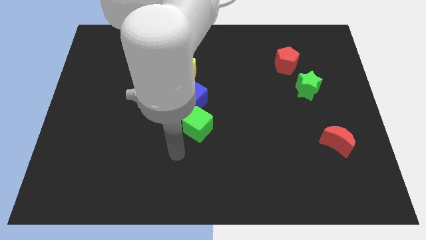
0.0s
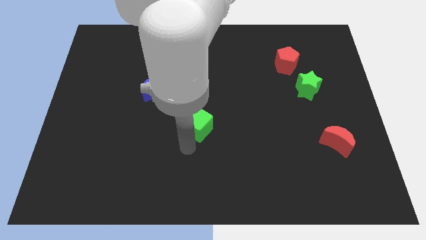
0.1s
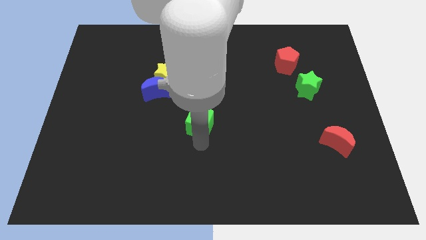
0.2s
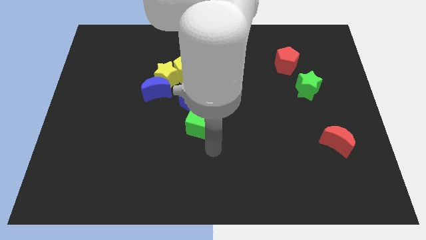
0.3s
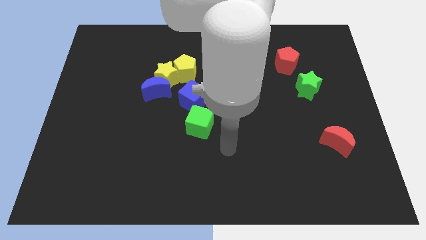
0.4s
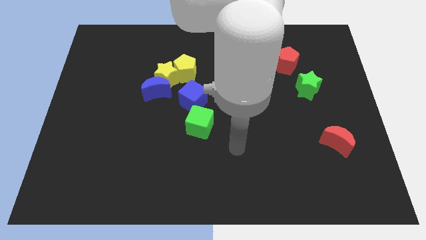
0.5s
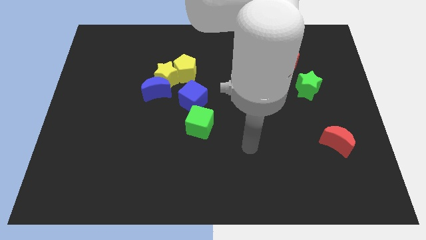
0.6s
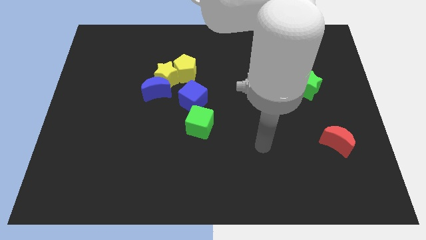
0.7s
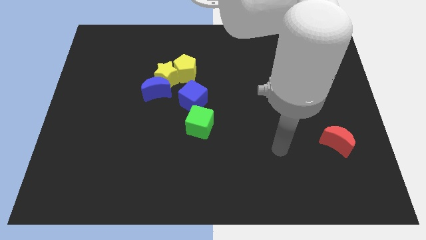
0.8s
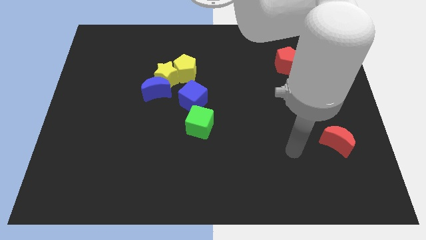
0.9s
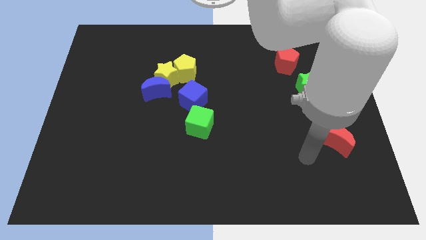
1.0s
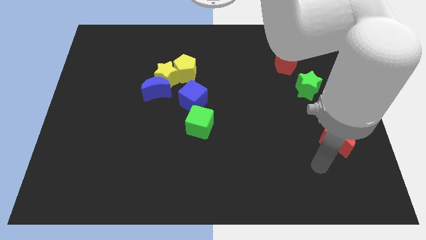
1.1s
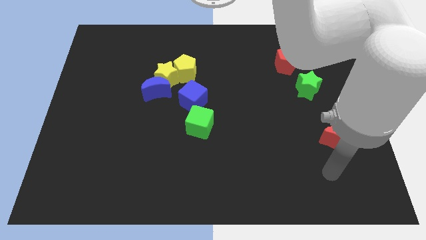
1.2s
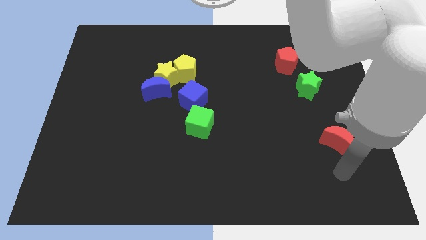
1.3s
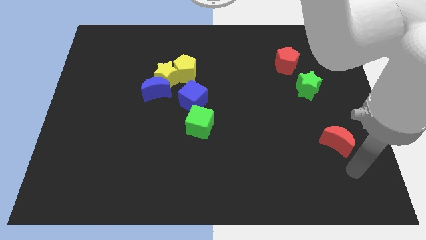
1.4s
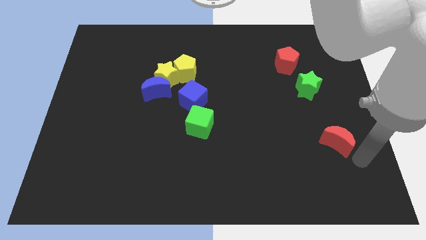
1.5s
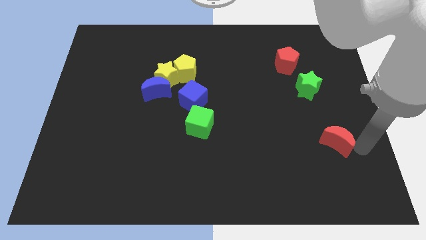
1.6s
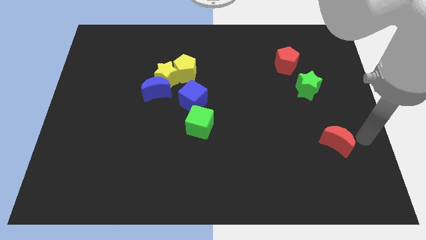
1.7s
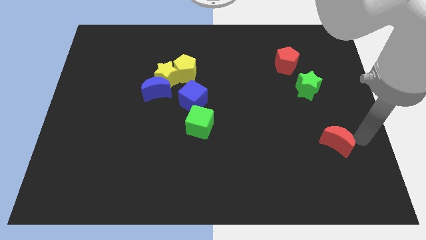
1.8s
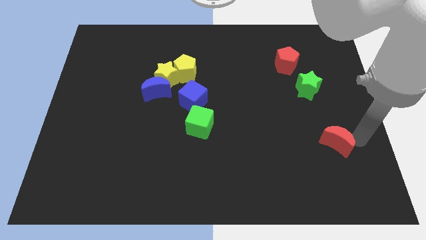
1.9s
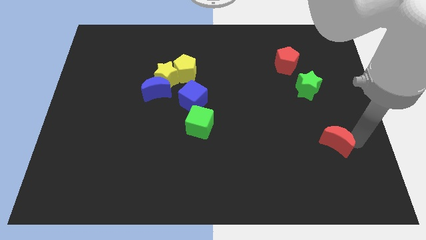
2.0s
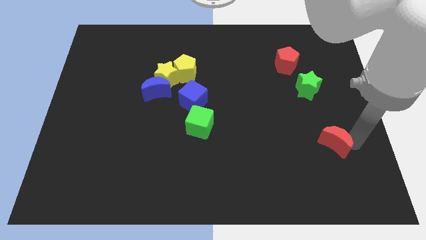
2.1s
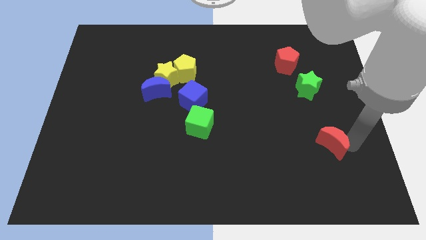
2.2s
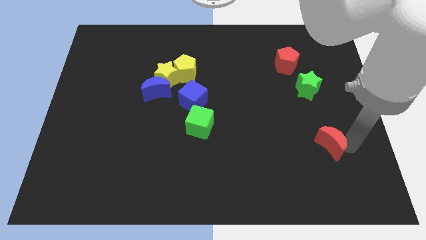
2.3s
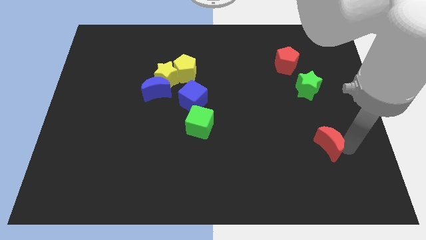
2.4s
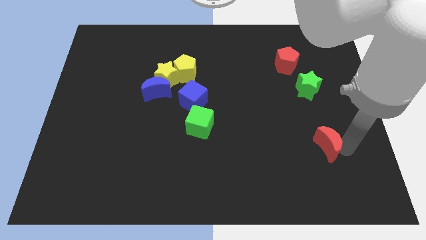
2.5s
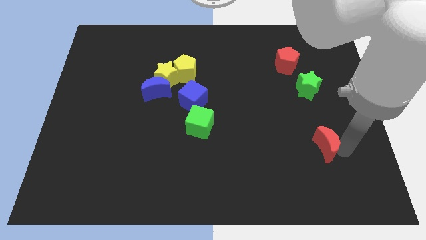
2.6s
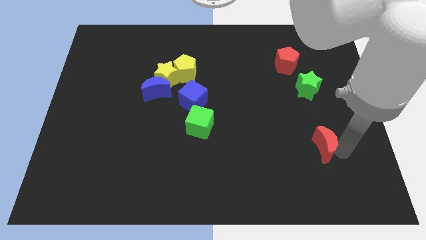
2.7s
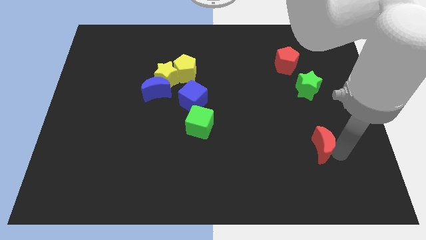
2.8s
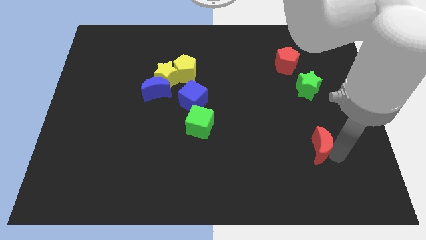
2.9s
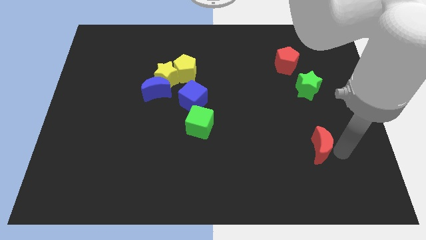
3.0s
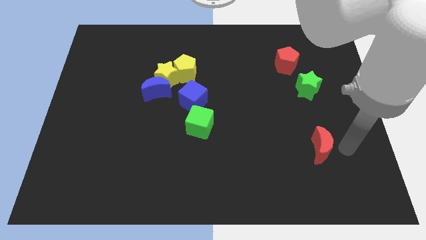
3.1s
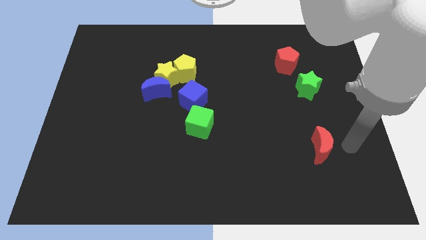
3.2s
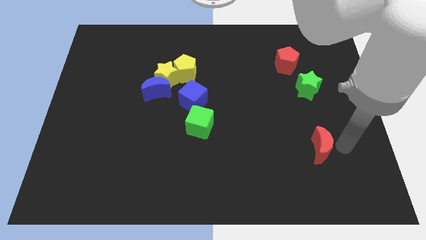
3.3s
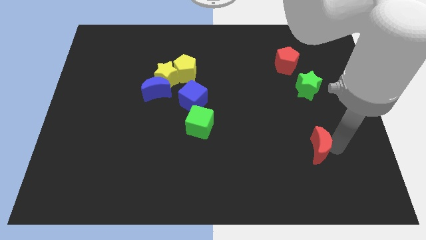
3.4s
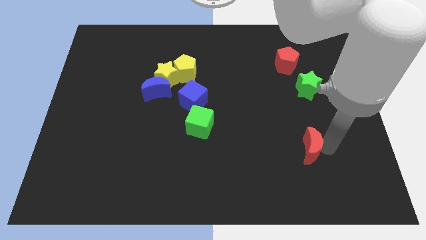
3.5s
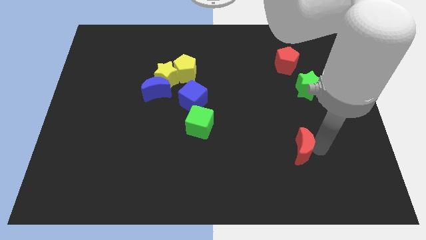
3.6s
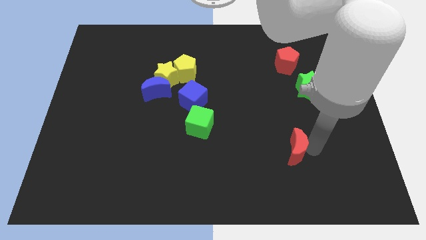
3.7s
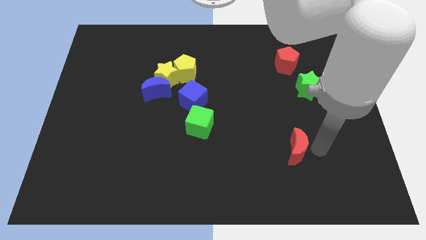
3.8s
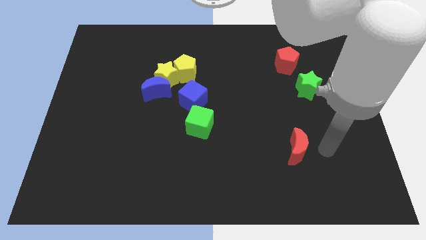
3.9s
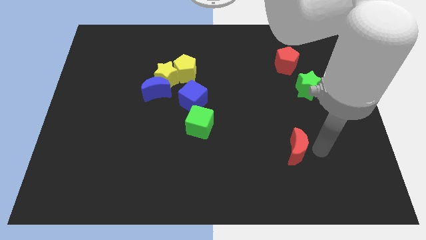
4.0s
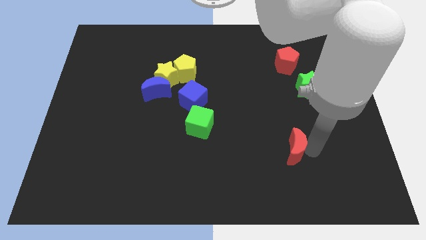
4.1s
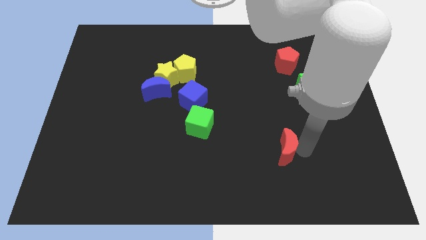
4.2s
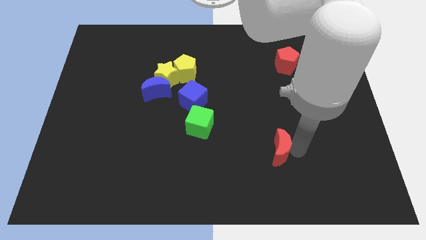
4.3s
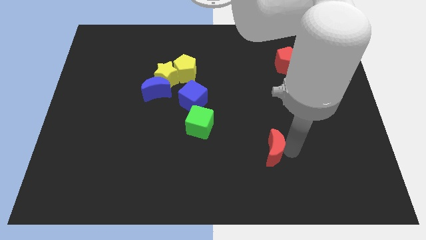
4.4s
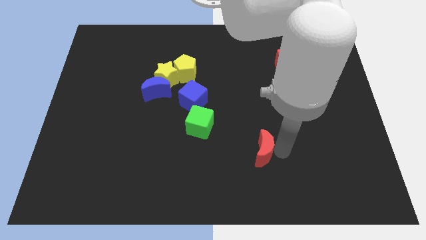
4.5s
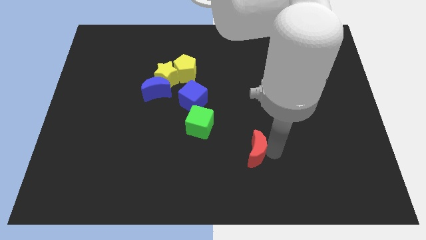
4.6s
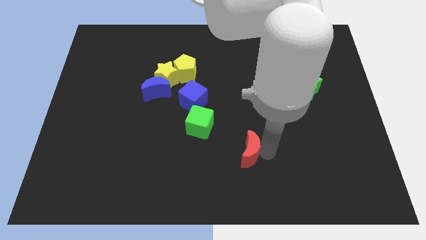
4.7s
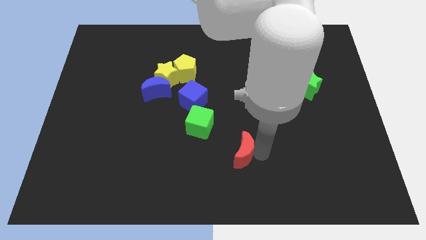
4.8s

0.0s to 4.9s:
move the red moon to the left

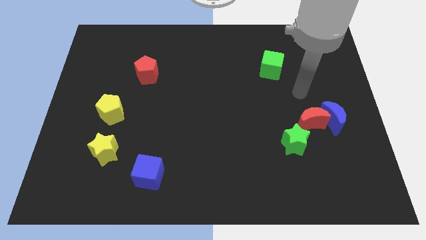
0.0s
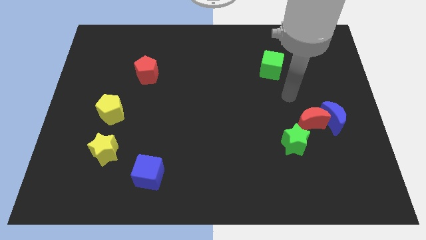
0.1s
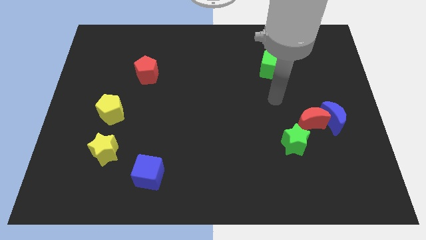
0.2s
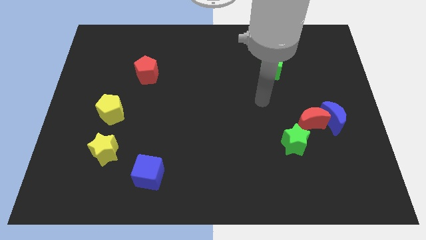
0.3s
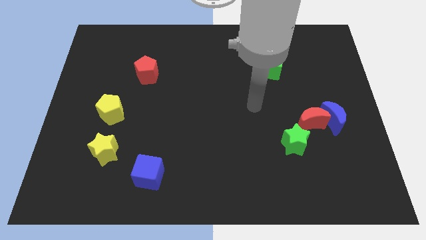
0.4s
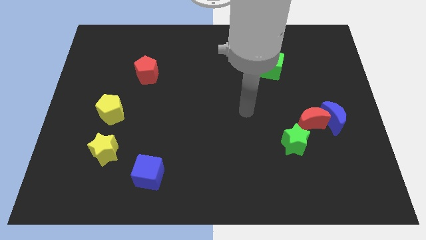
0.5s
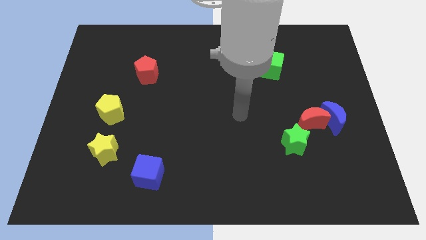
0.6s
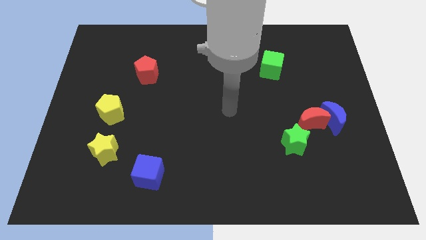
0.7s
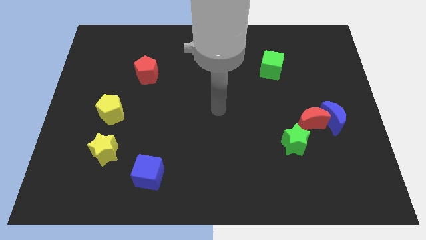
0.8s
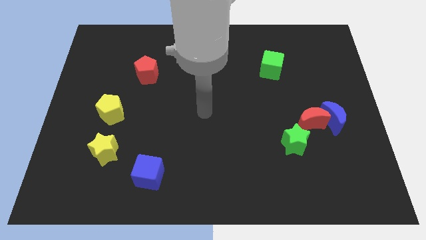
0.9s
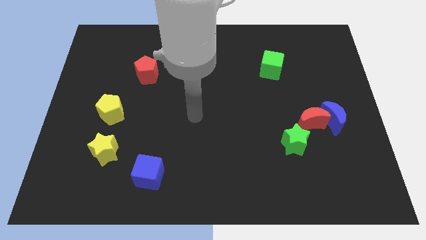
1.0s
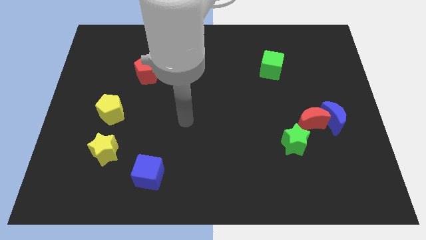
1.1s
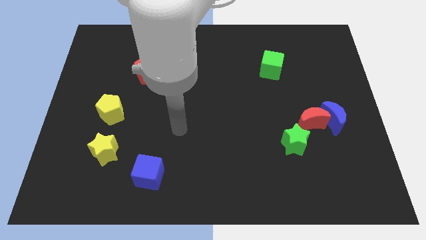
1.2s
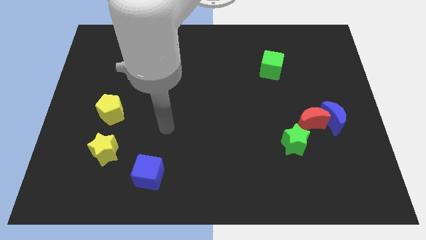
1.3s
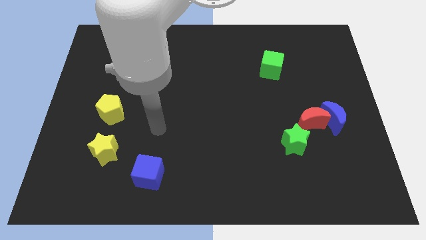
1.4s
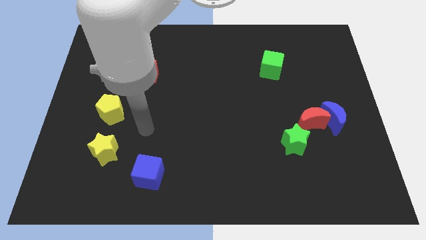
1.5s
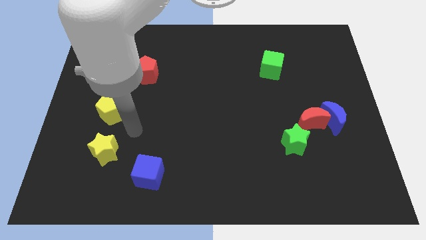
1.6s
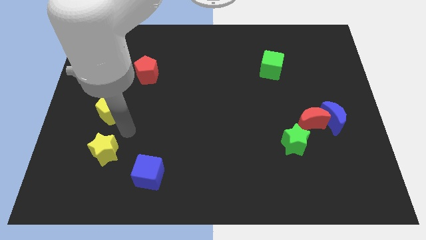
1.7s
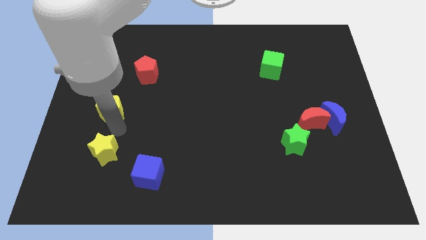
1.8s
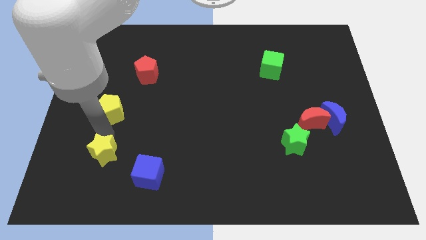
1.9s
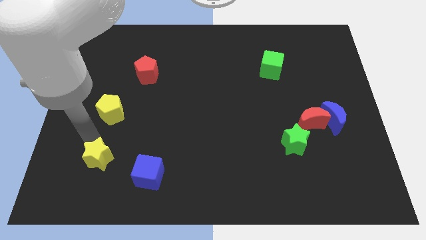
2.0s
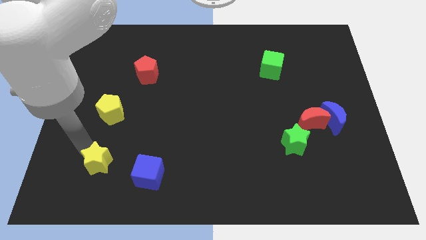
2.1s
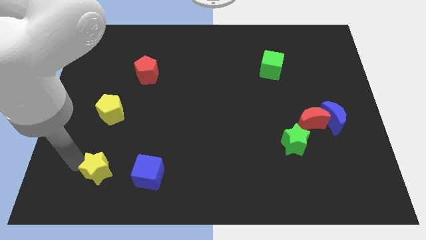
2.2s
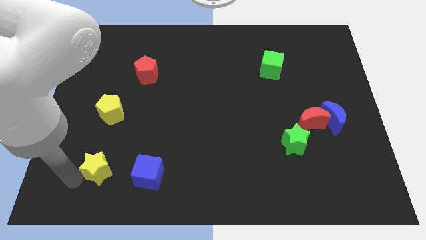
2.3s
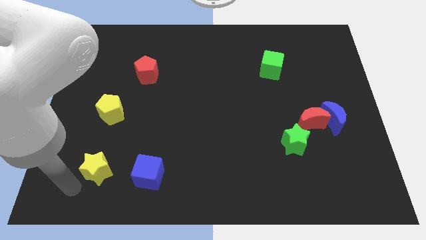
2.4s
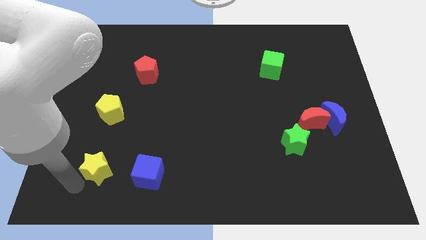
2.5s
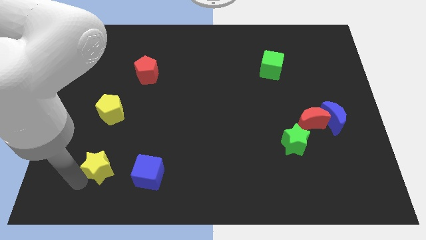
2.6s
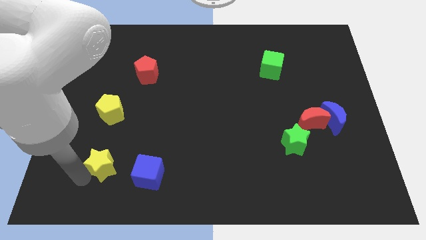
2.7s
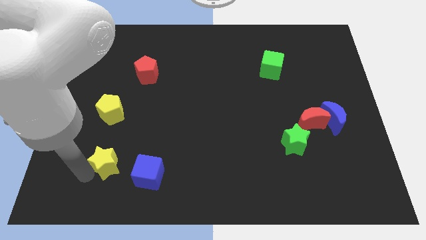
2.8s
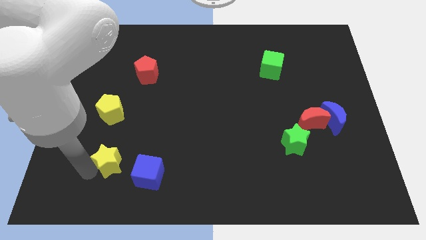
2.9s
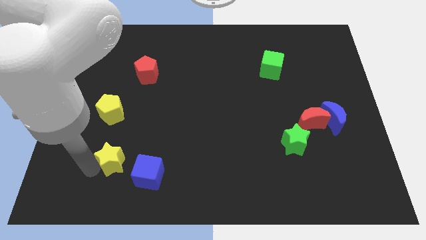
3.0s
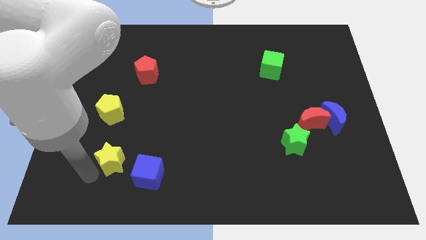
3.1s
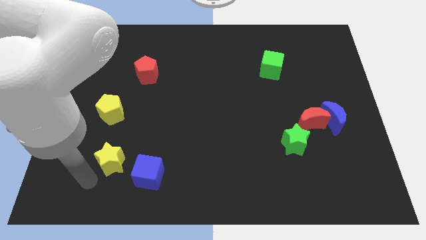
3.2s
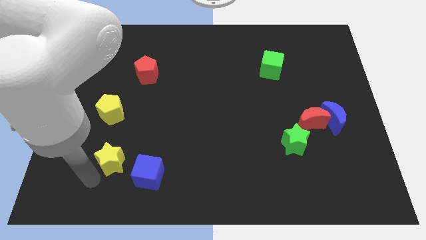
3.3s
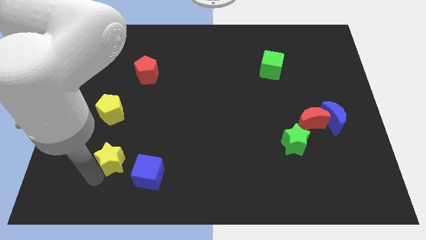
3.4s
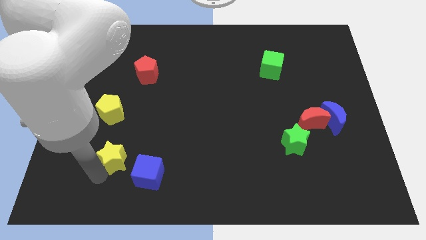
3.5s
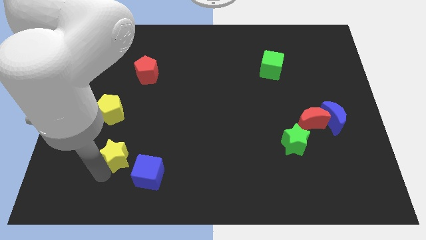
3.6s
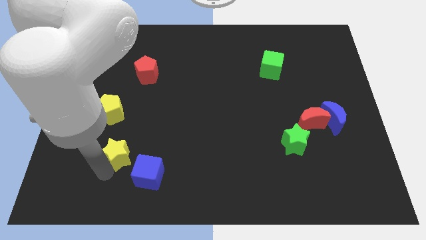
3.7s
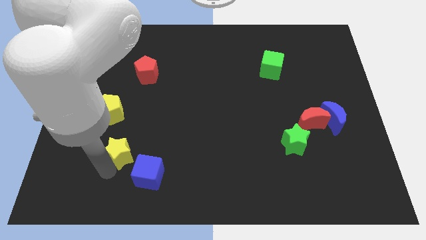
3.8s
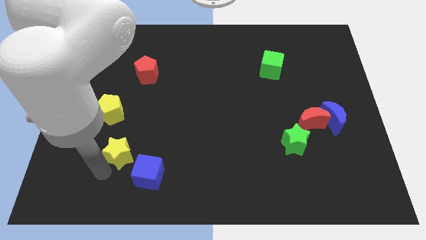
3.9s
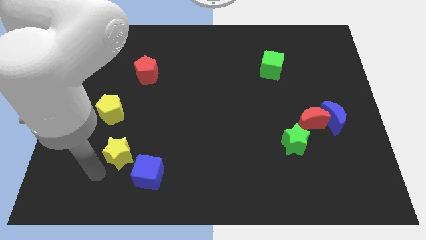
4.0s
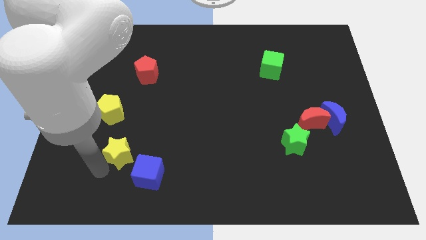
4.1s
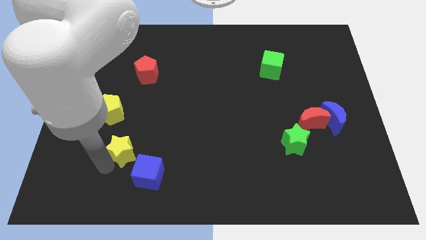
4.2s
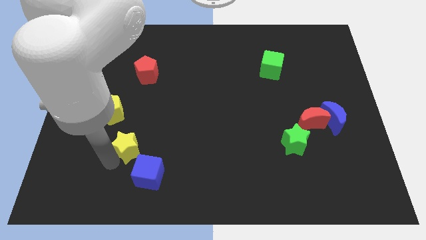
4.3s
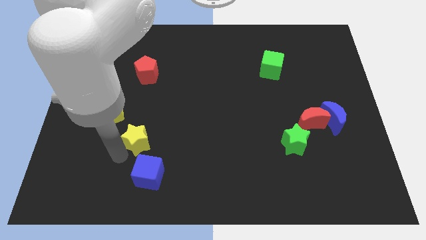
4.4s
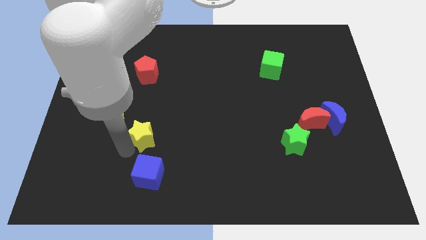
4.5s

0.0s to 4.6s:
move the yellow star a little bit up and to the right
